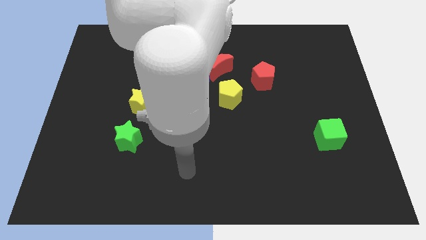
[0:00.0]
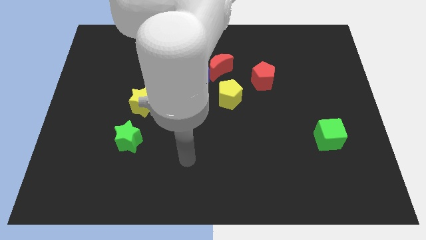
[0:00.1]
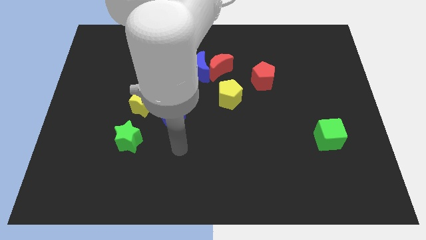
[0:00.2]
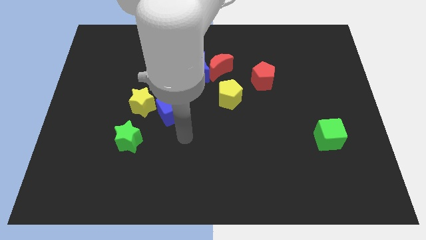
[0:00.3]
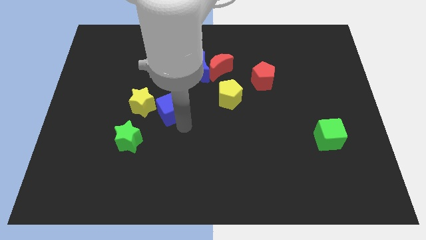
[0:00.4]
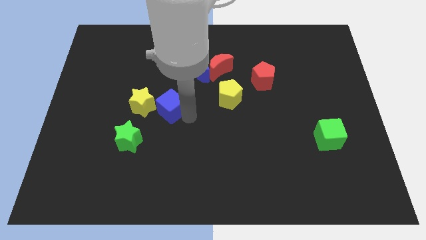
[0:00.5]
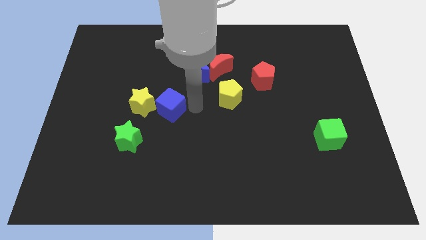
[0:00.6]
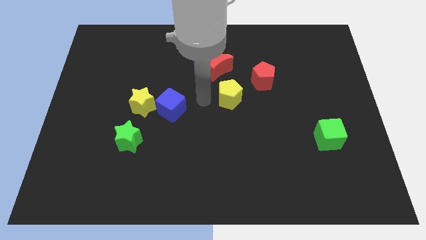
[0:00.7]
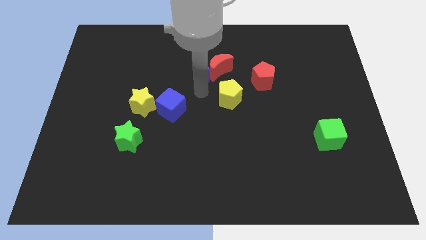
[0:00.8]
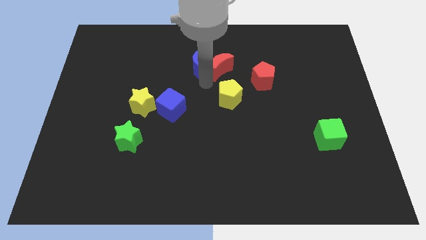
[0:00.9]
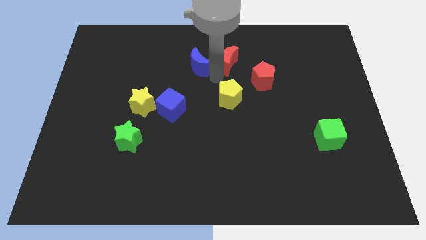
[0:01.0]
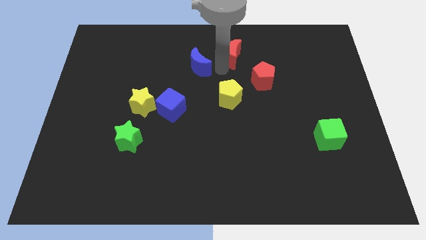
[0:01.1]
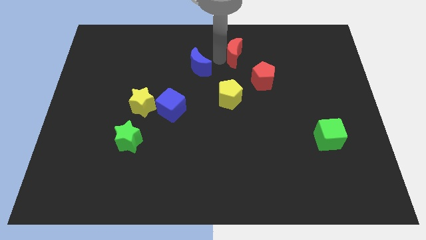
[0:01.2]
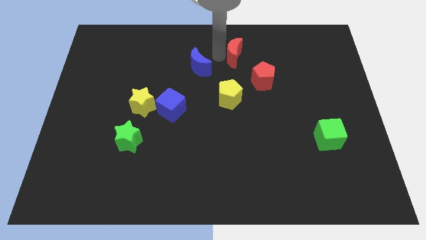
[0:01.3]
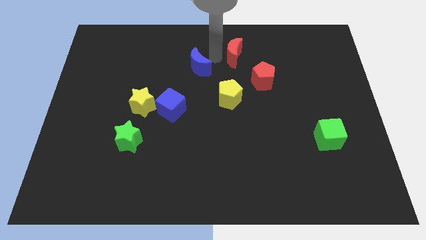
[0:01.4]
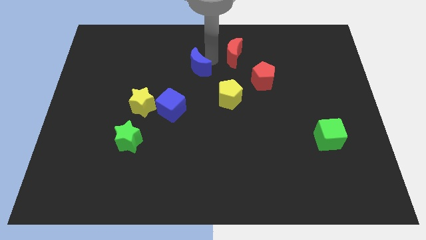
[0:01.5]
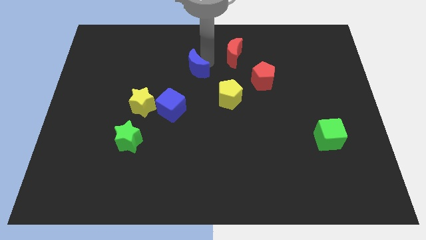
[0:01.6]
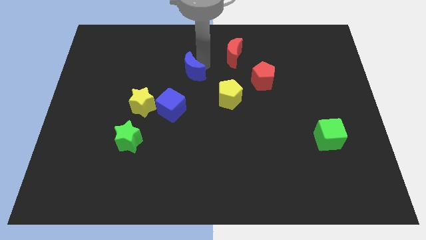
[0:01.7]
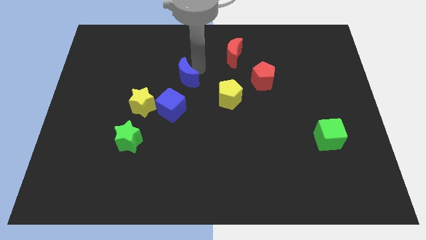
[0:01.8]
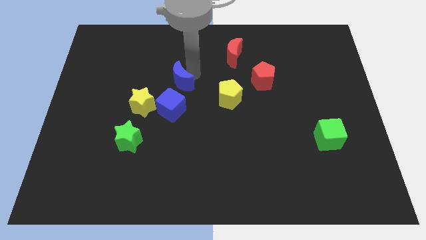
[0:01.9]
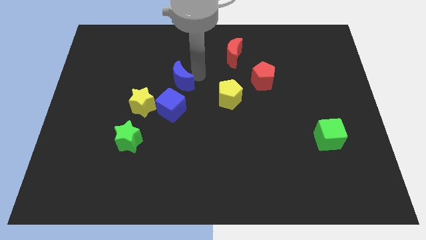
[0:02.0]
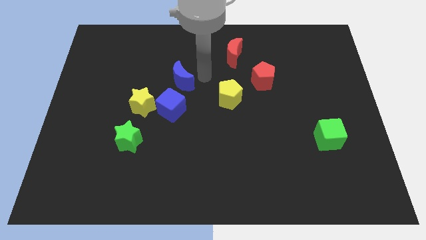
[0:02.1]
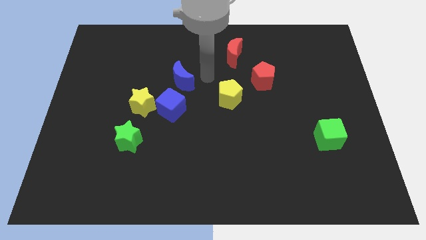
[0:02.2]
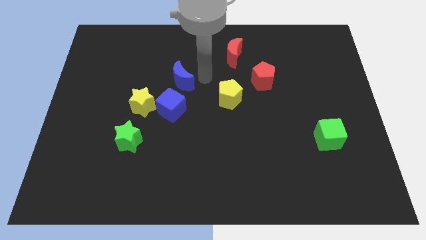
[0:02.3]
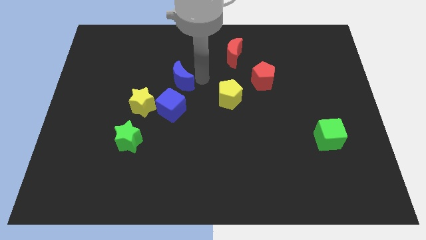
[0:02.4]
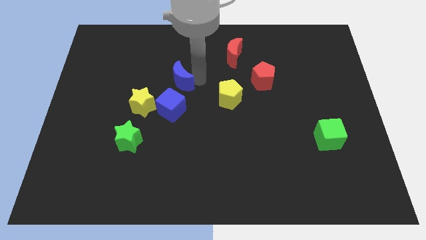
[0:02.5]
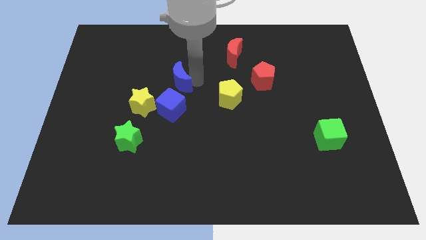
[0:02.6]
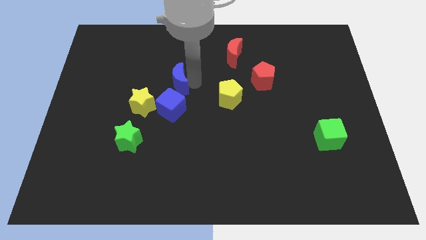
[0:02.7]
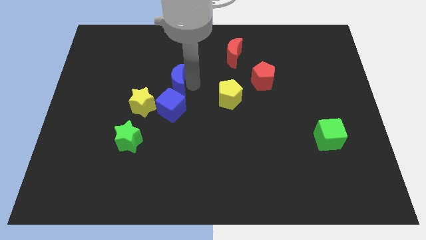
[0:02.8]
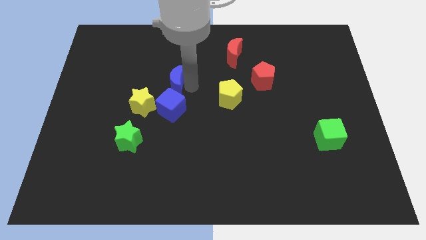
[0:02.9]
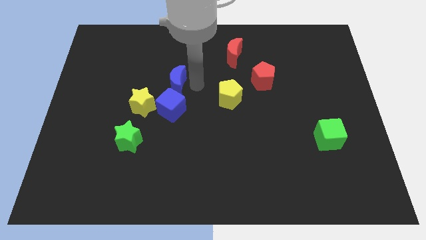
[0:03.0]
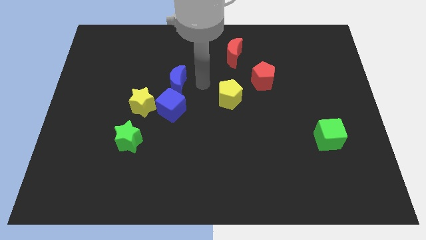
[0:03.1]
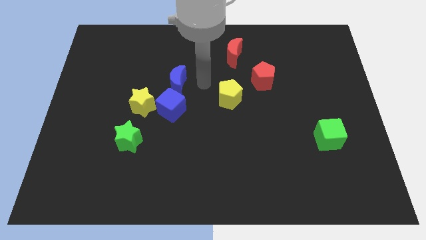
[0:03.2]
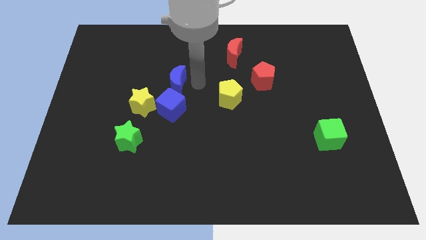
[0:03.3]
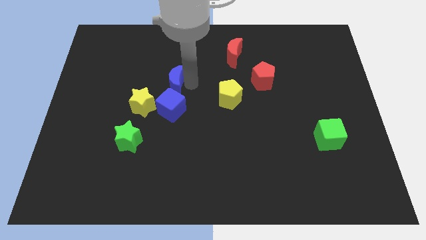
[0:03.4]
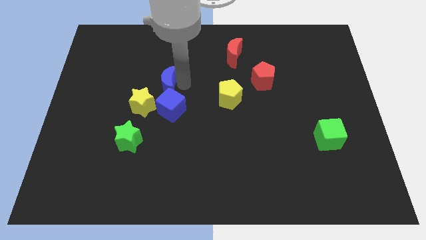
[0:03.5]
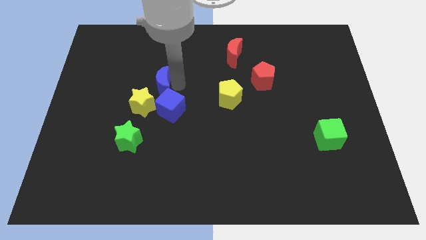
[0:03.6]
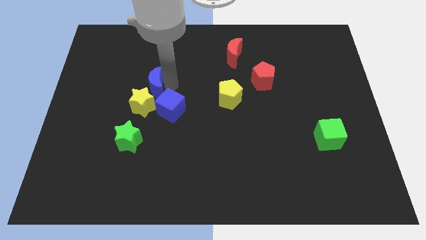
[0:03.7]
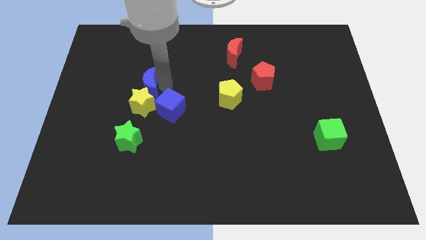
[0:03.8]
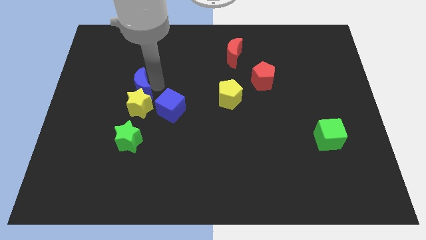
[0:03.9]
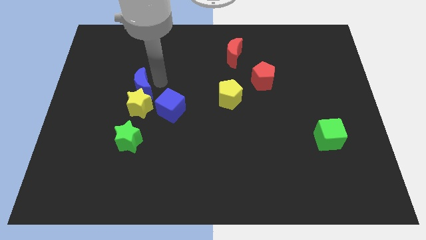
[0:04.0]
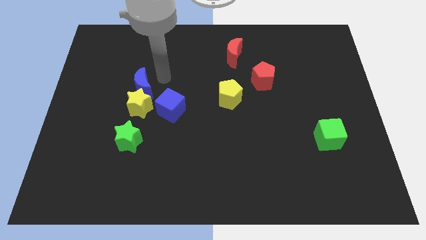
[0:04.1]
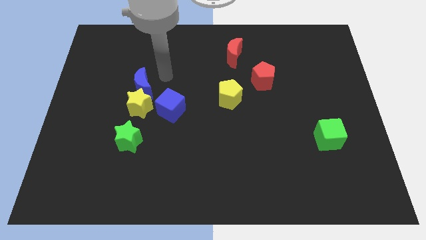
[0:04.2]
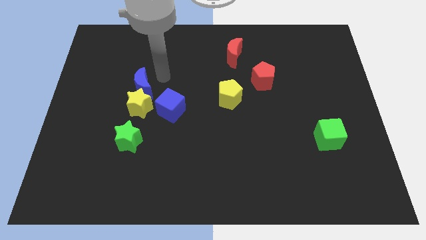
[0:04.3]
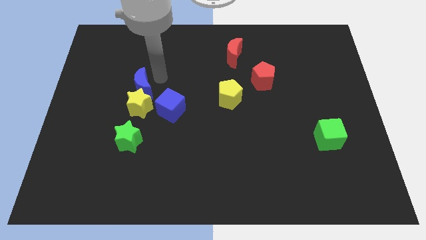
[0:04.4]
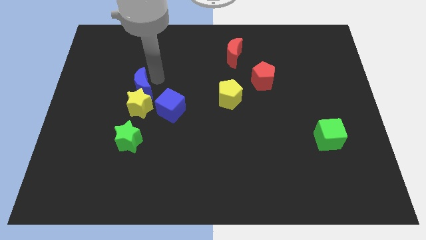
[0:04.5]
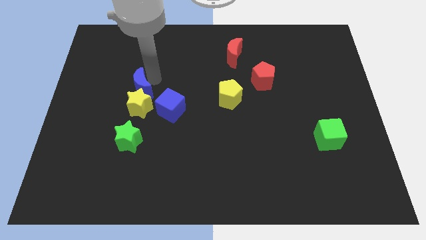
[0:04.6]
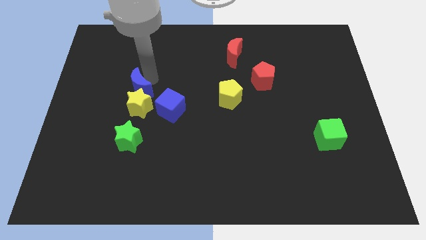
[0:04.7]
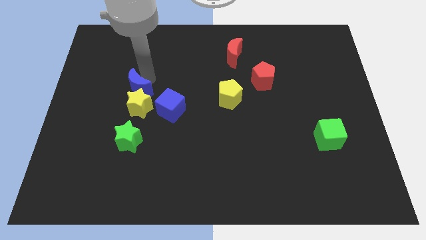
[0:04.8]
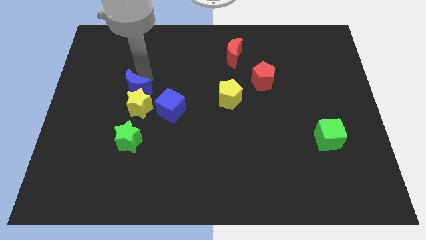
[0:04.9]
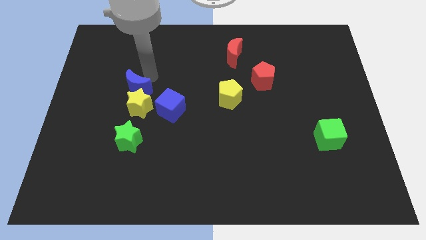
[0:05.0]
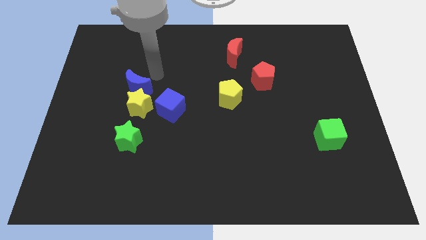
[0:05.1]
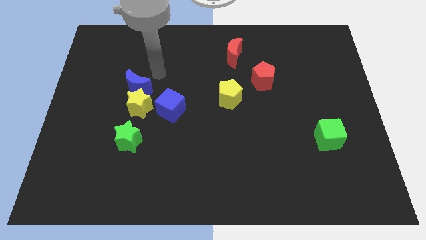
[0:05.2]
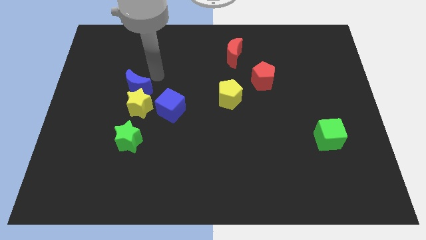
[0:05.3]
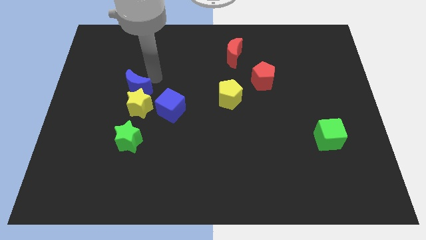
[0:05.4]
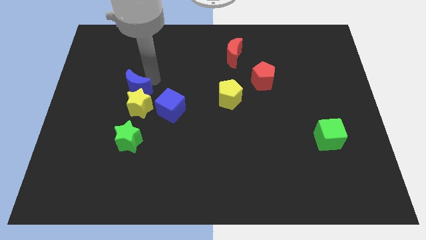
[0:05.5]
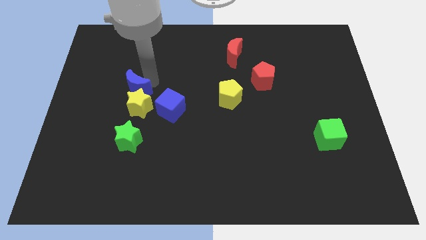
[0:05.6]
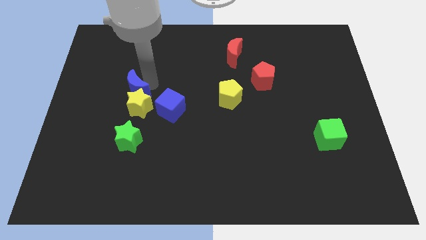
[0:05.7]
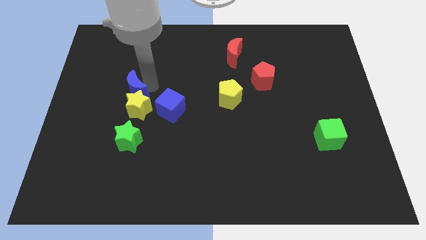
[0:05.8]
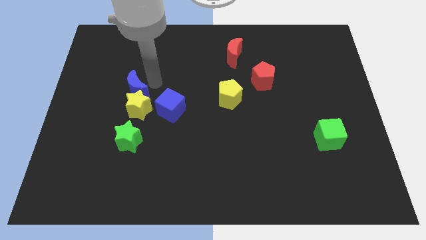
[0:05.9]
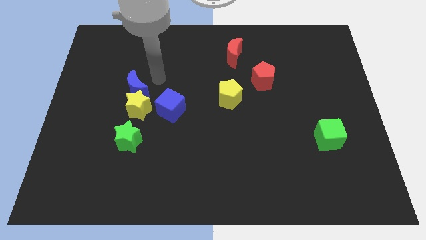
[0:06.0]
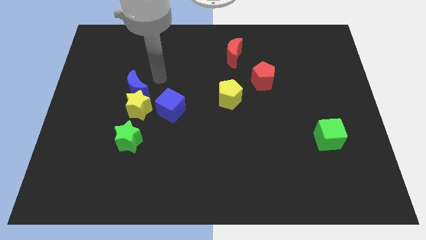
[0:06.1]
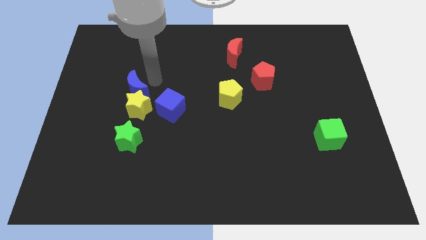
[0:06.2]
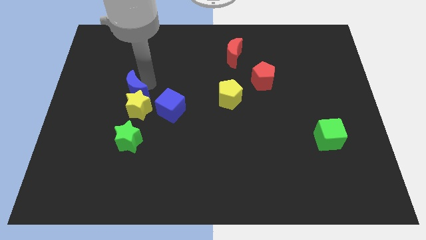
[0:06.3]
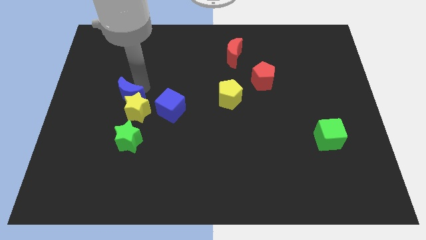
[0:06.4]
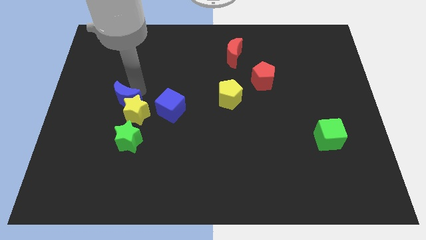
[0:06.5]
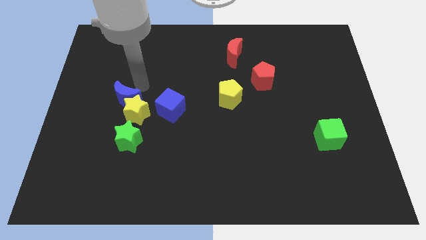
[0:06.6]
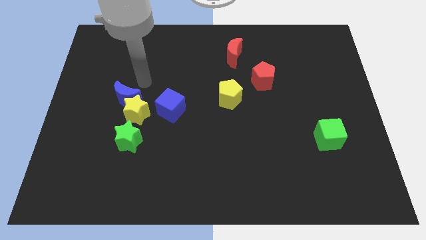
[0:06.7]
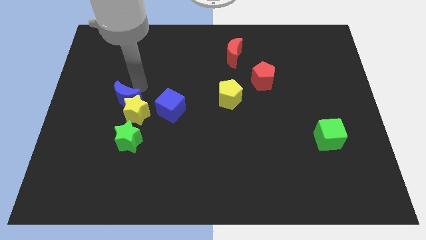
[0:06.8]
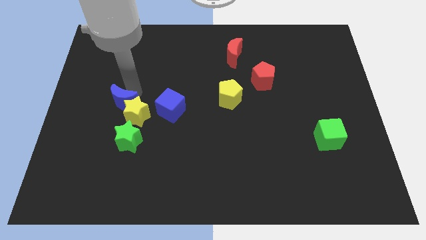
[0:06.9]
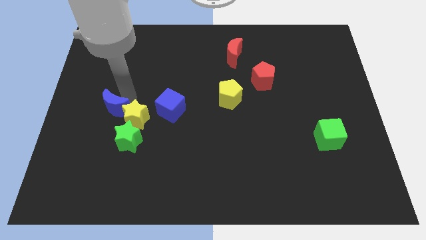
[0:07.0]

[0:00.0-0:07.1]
slide the blue moon downwards and to the left

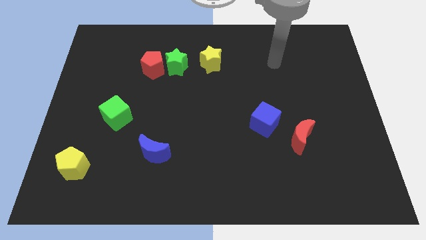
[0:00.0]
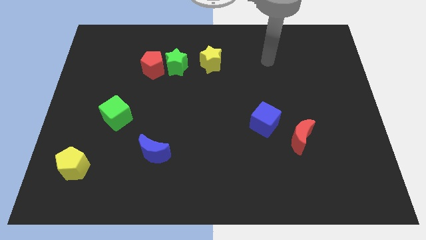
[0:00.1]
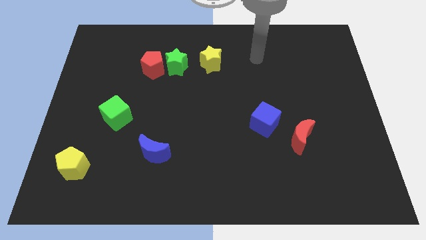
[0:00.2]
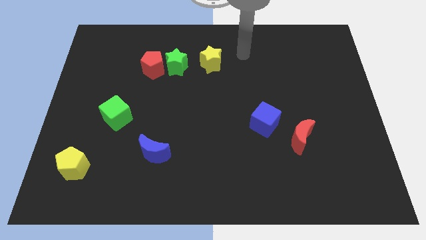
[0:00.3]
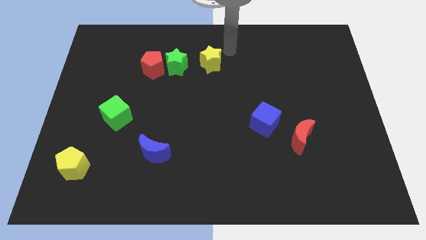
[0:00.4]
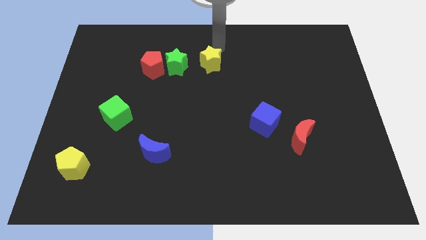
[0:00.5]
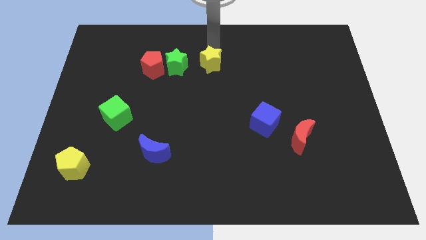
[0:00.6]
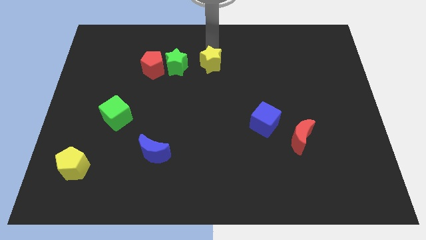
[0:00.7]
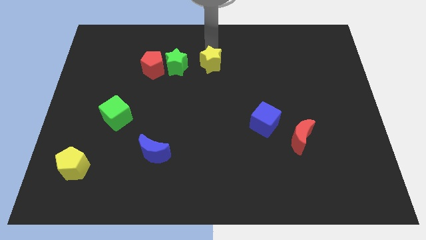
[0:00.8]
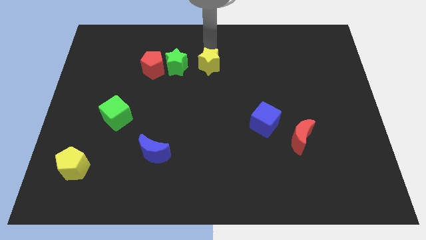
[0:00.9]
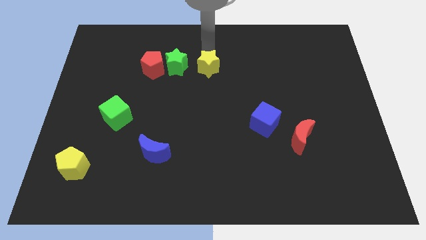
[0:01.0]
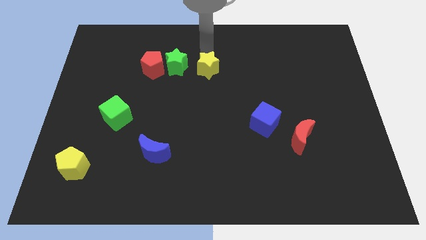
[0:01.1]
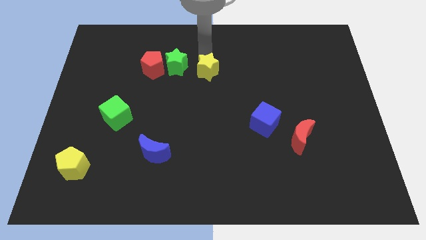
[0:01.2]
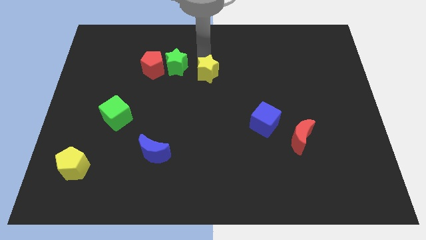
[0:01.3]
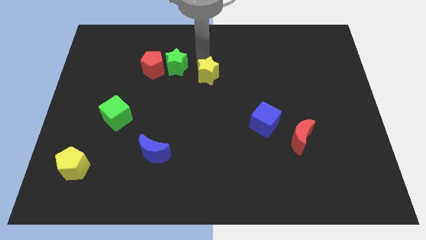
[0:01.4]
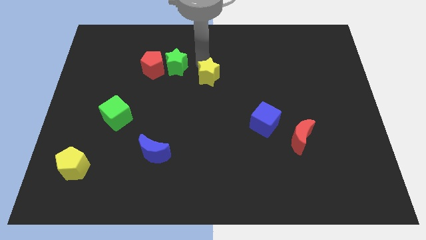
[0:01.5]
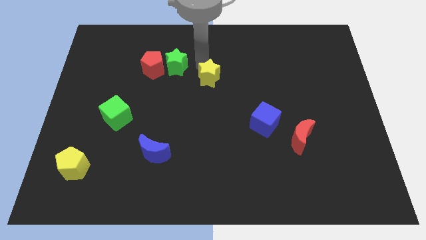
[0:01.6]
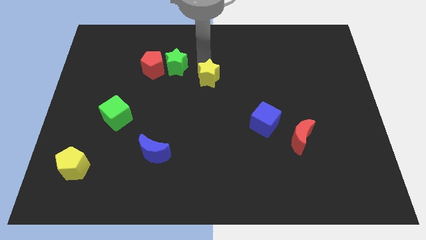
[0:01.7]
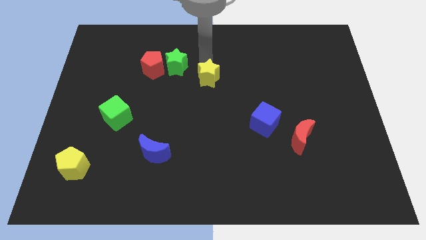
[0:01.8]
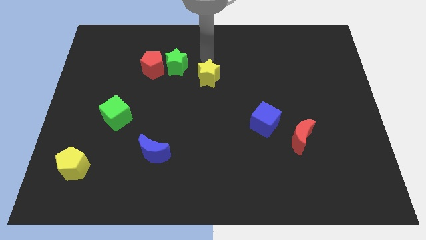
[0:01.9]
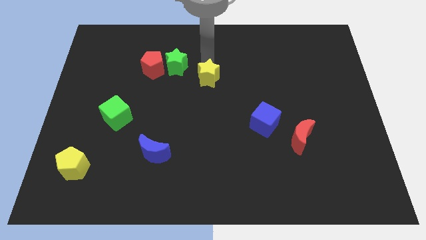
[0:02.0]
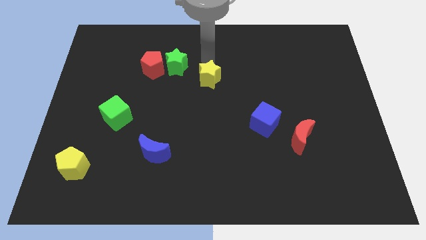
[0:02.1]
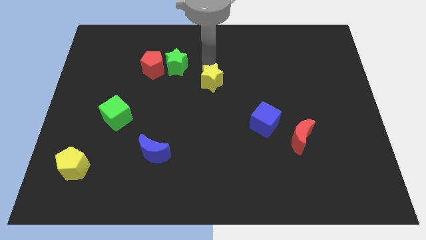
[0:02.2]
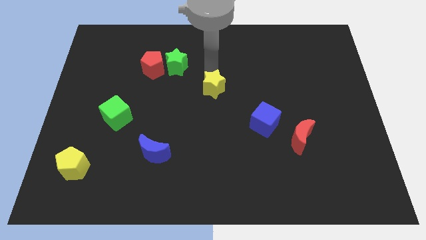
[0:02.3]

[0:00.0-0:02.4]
move the yellow star a bit down
